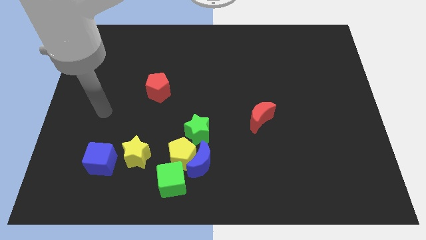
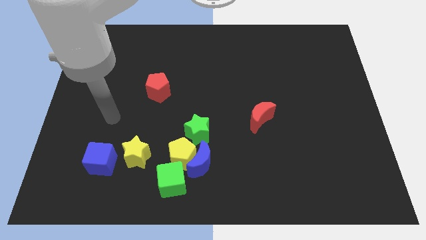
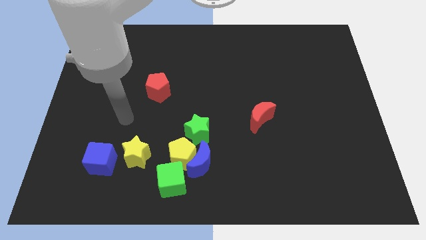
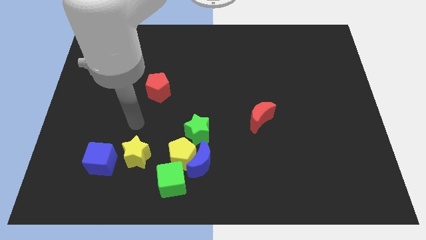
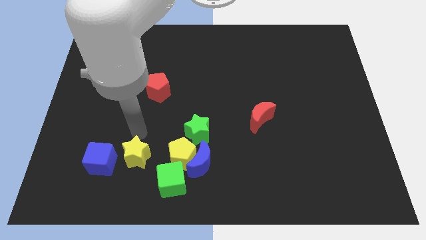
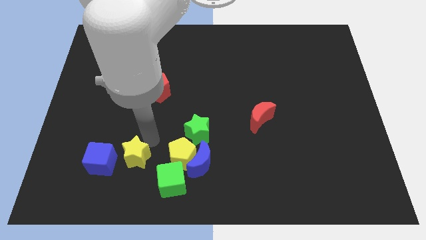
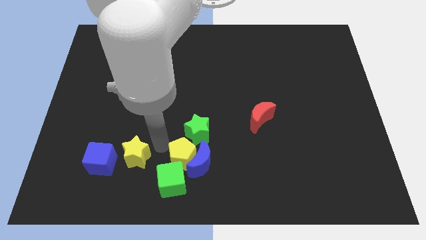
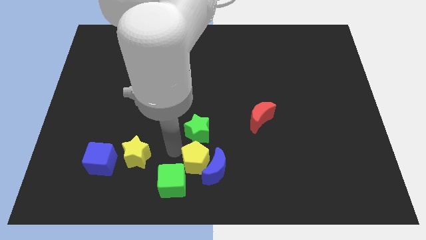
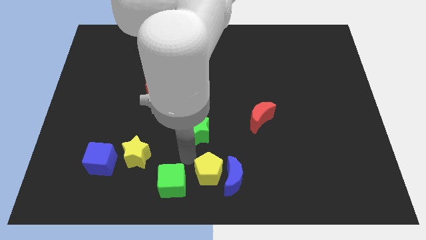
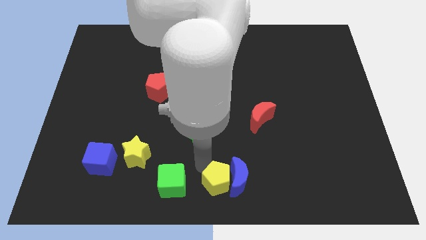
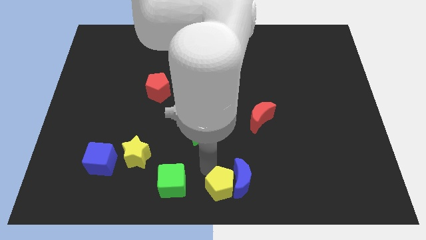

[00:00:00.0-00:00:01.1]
move the blue moon away from the clump

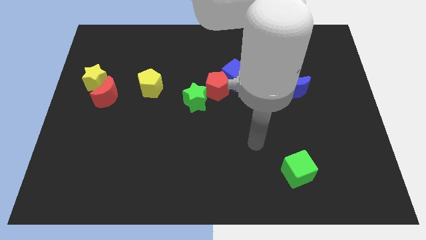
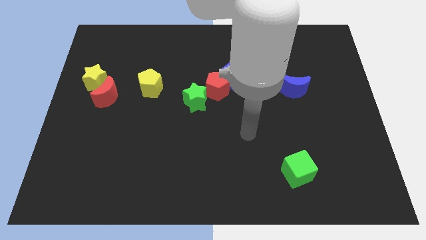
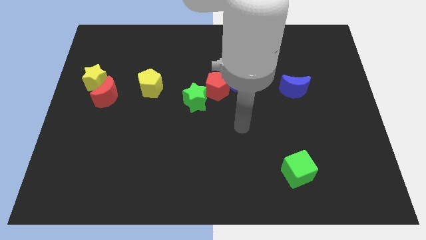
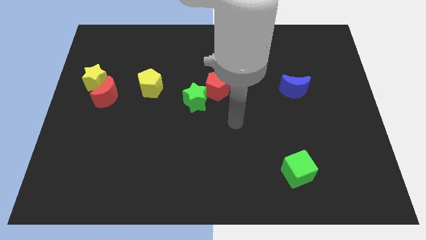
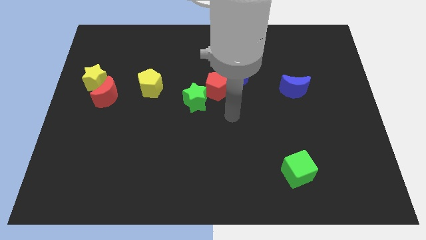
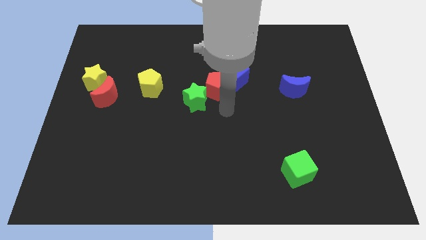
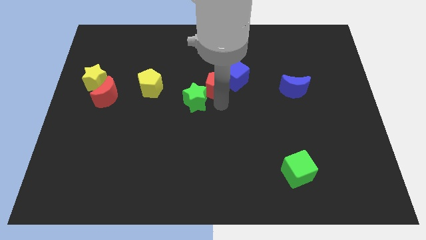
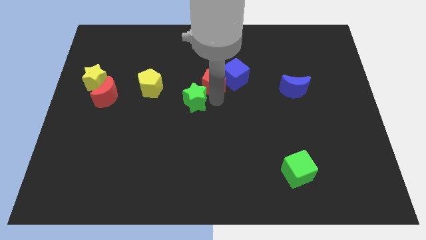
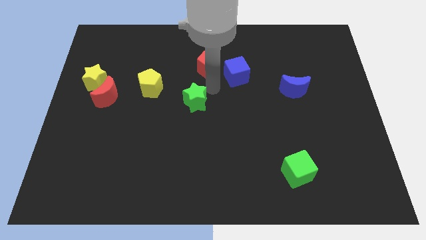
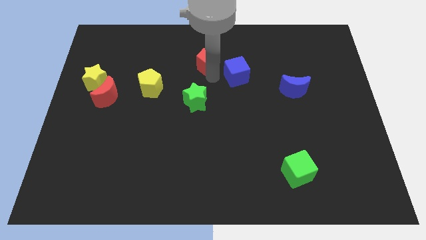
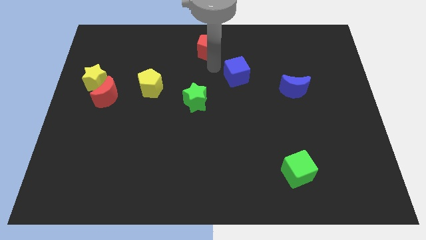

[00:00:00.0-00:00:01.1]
pull the blue cube apart from the red pentagon

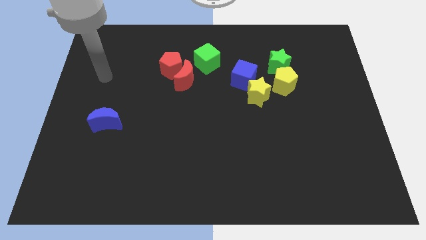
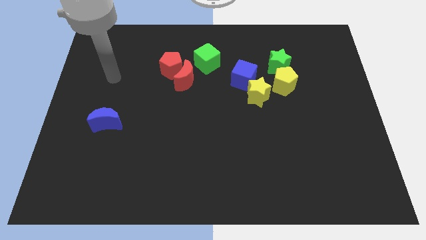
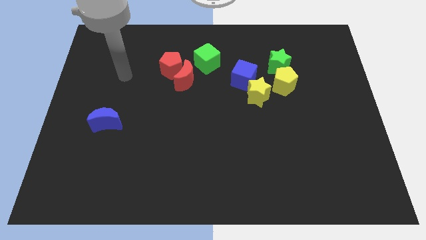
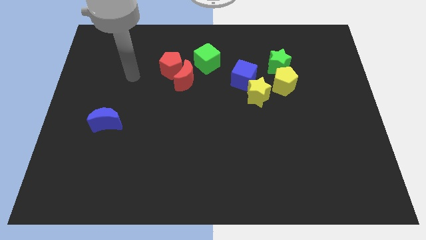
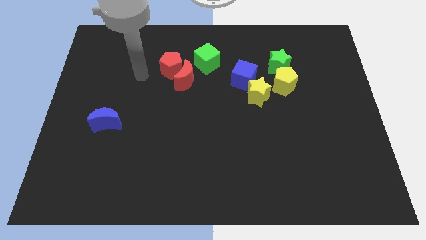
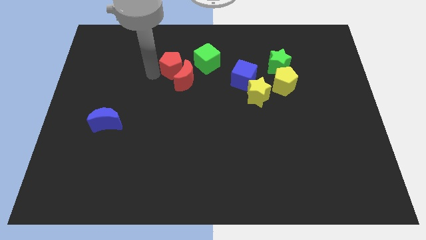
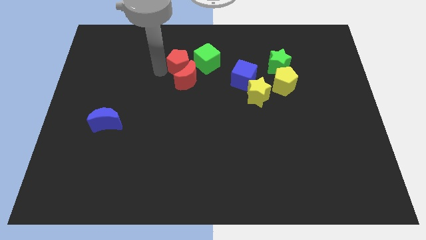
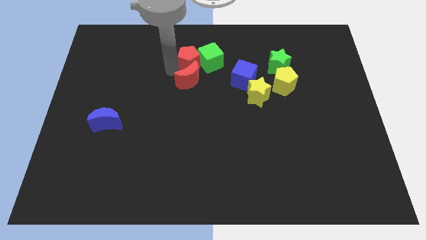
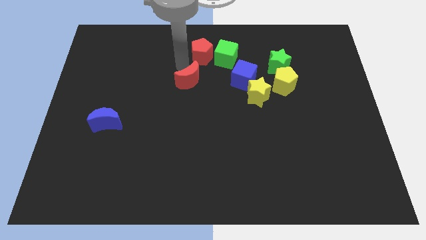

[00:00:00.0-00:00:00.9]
separate the red moon from the red pentagon and green cube

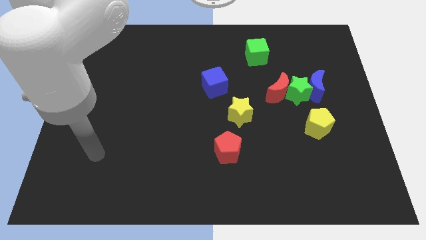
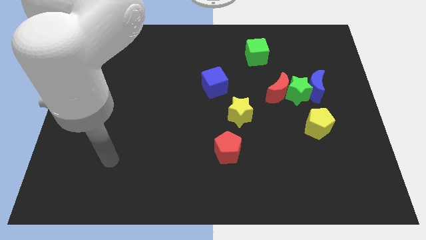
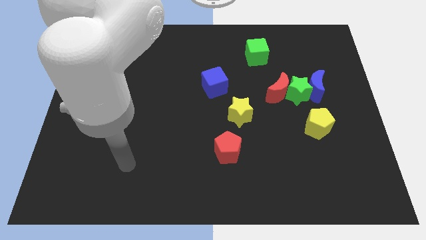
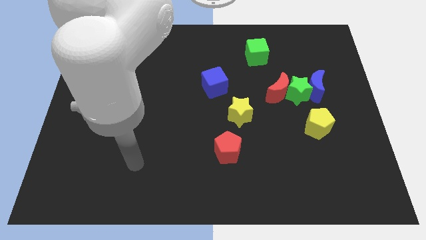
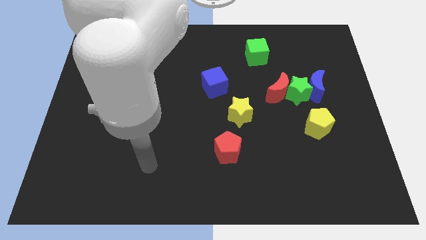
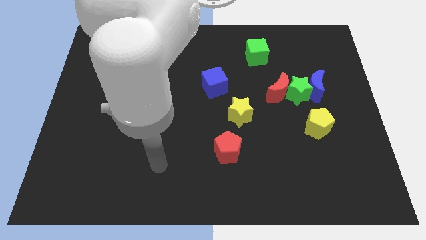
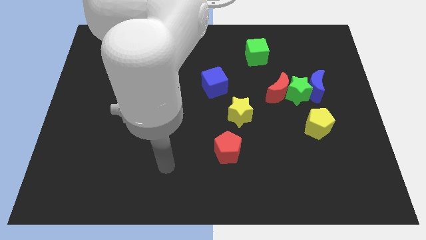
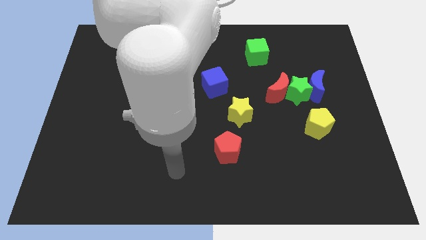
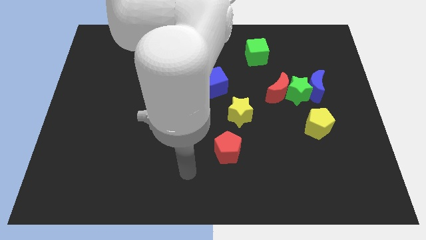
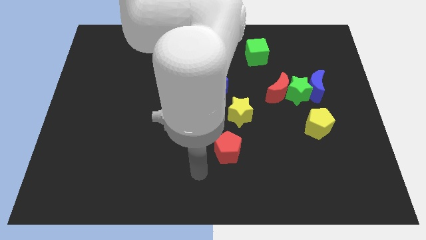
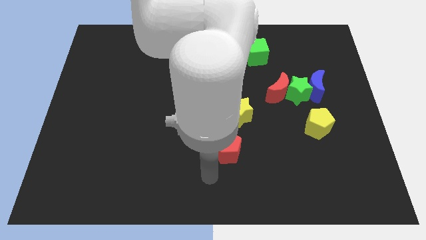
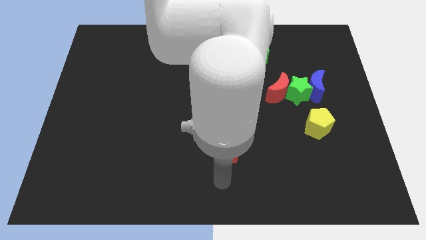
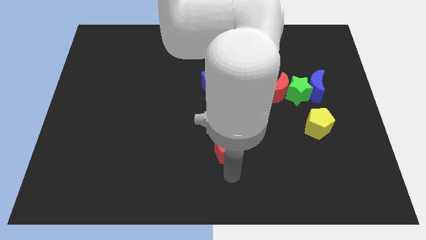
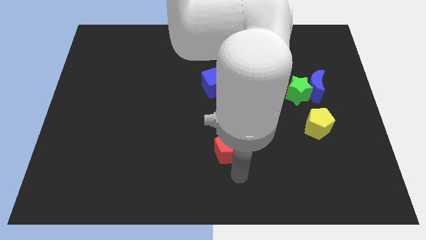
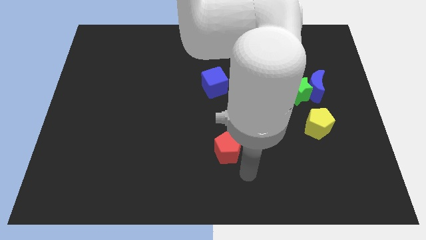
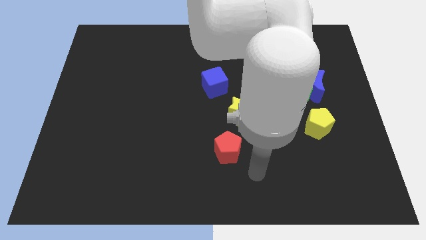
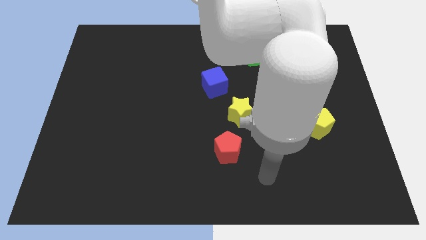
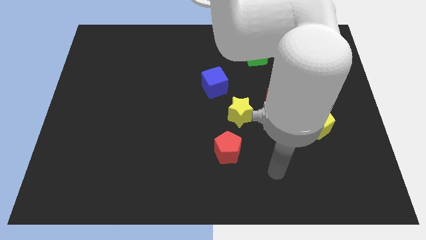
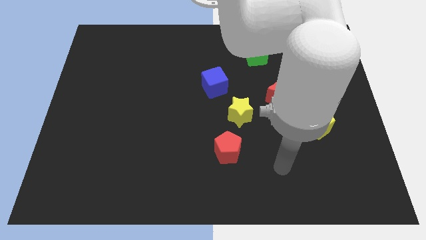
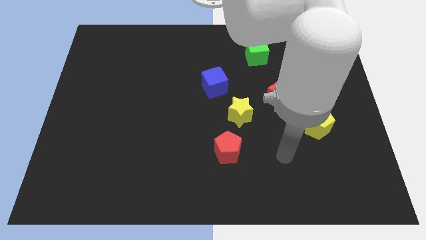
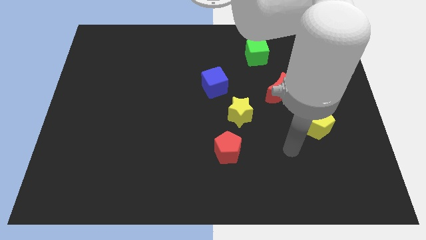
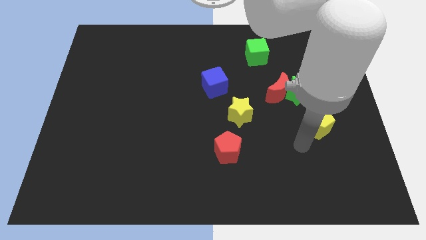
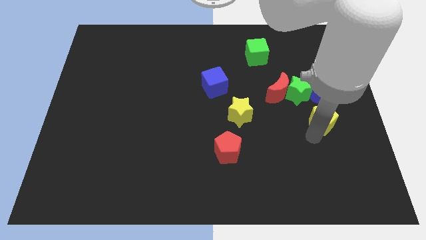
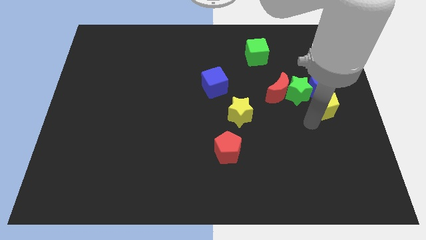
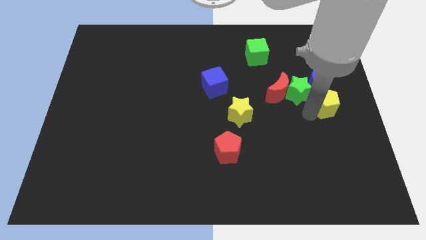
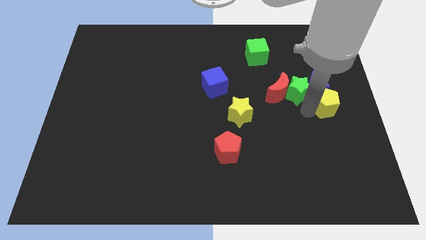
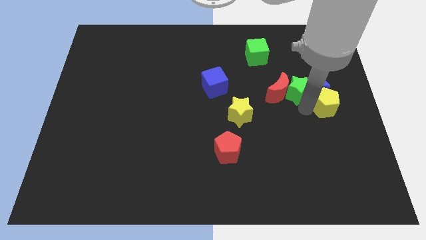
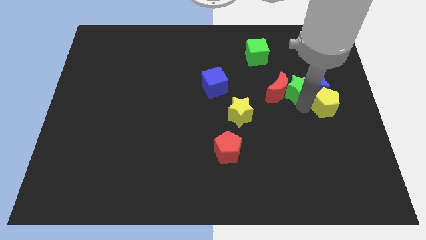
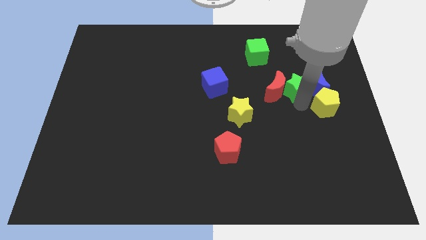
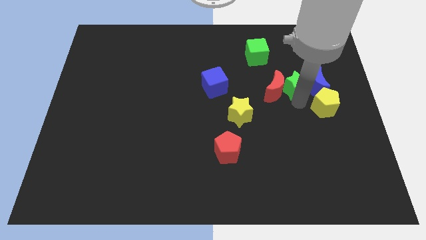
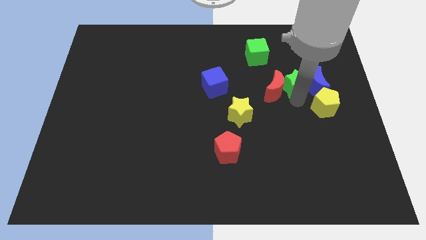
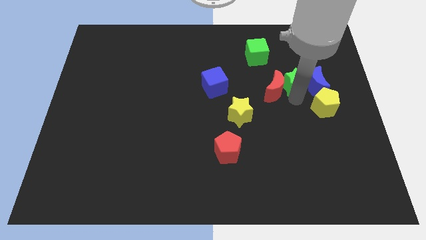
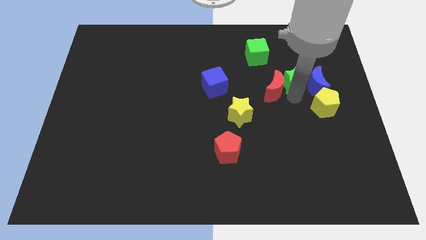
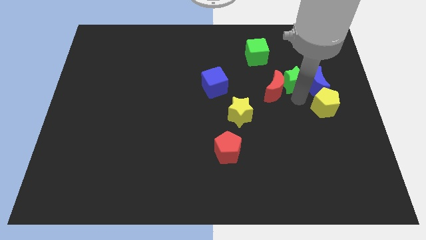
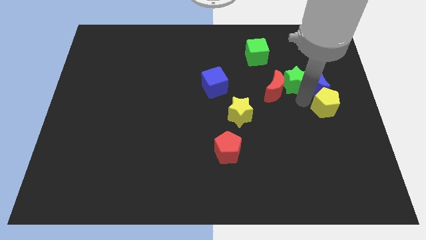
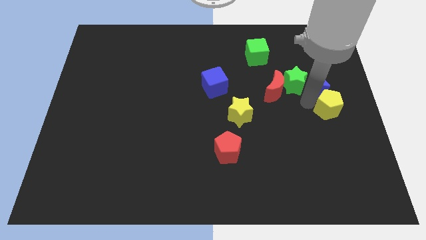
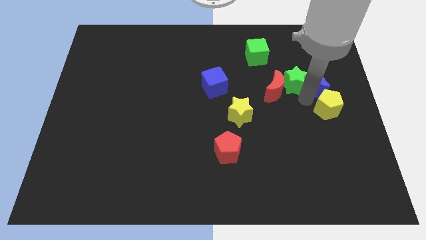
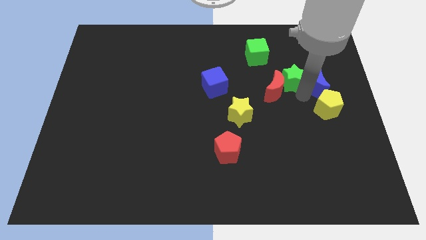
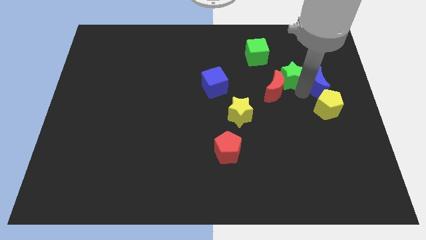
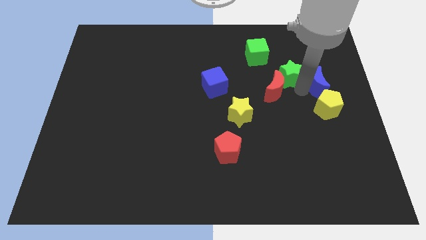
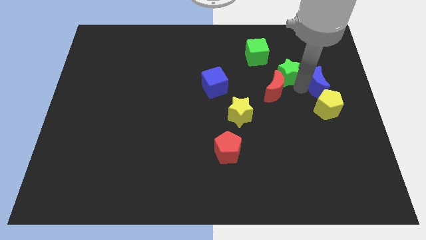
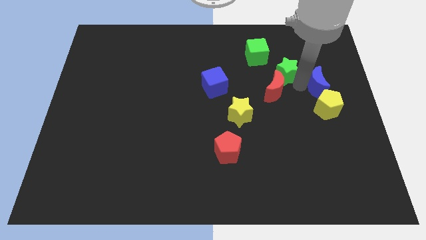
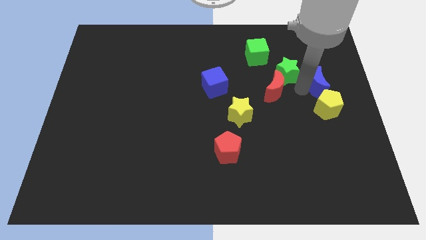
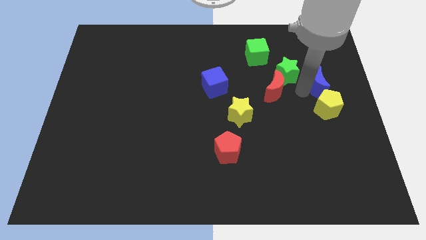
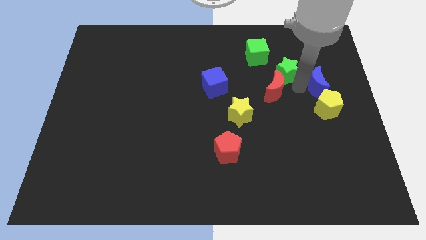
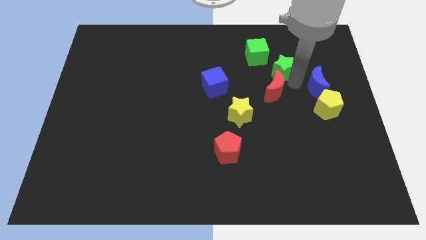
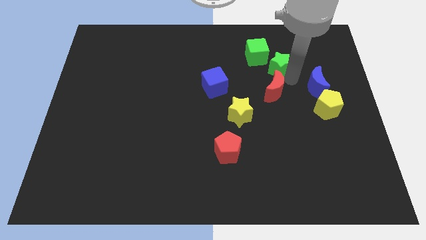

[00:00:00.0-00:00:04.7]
pull the green star apart from the blue moon, red moon, and yellow pentagon

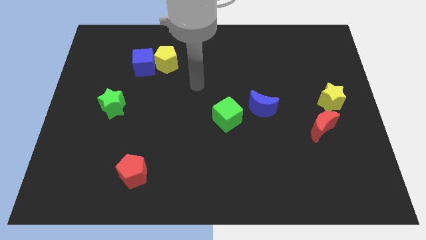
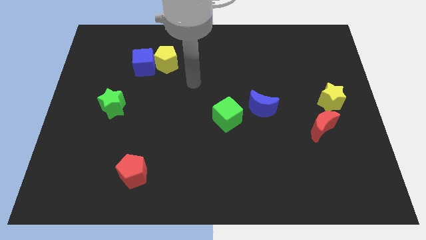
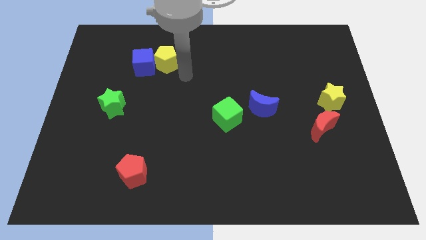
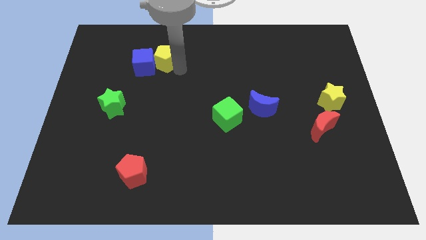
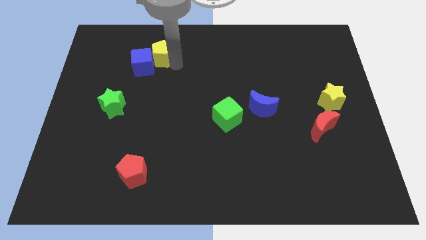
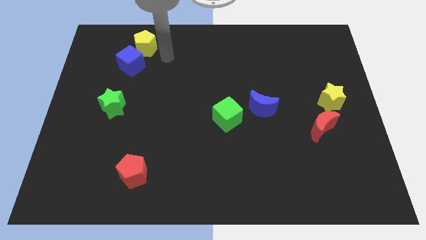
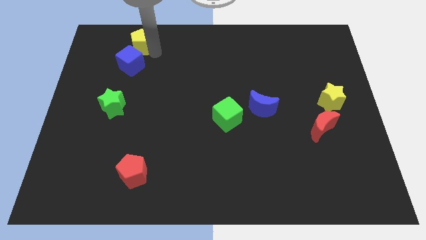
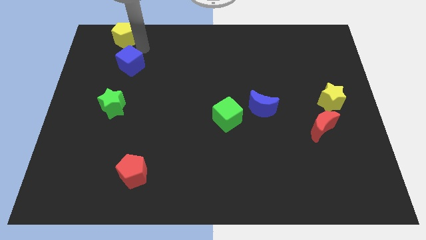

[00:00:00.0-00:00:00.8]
separate the blue cube from the yellow pentagon

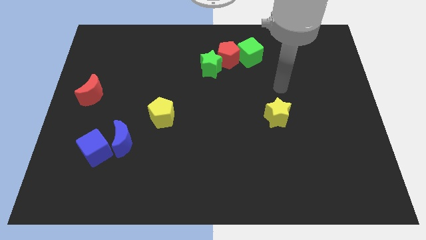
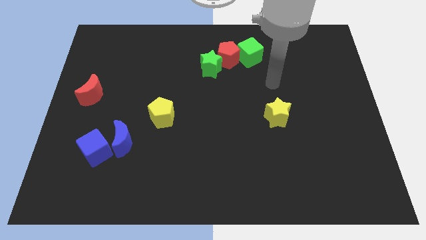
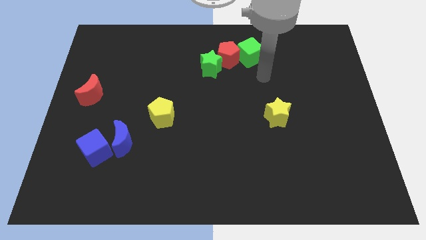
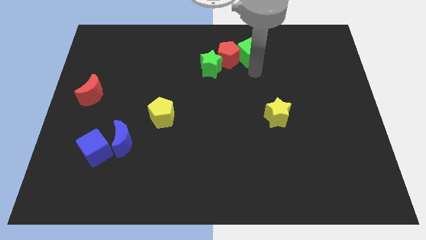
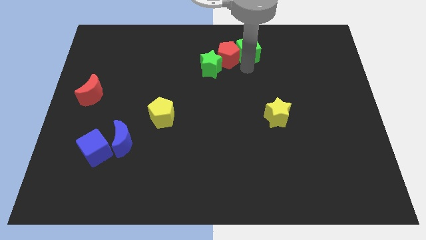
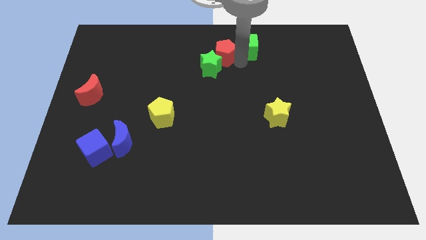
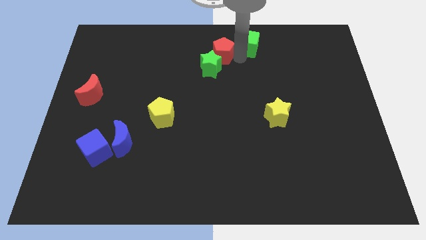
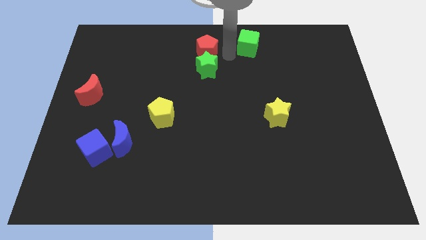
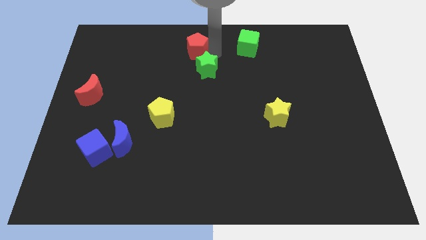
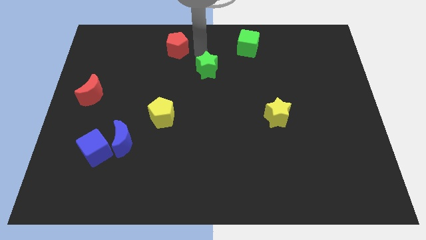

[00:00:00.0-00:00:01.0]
pull the green star apart from the red pentagon
